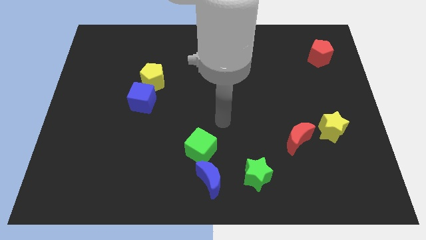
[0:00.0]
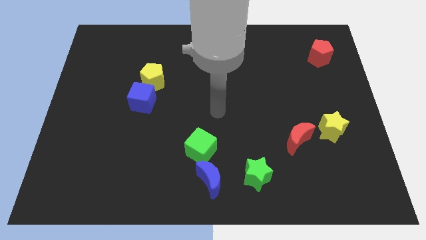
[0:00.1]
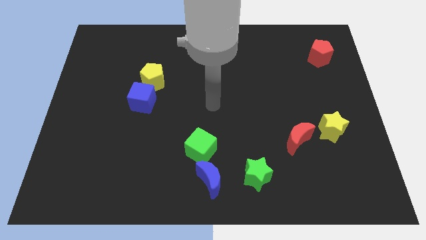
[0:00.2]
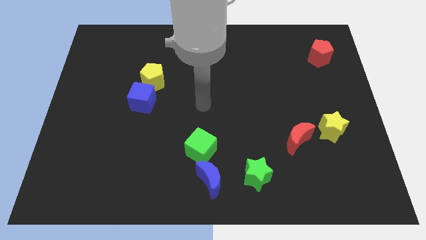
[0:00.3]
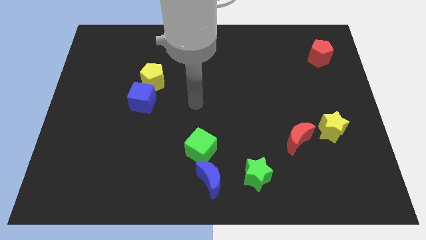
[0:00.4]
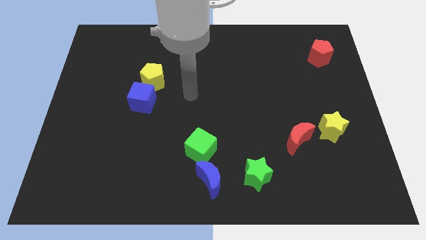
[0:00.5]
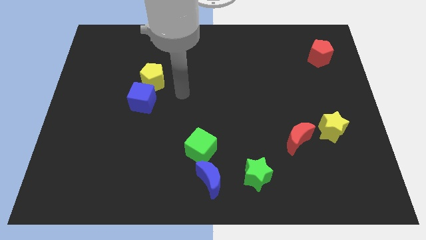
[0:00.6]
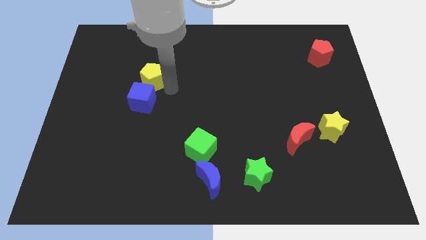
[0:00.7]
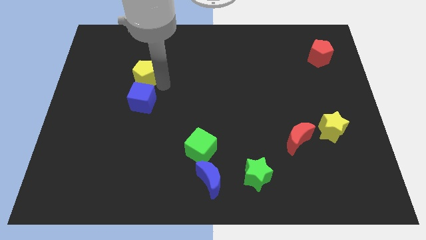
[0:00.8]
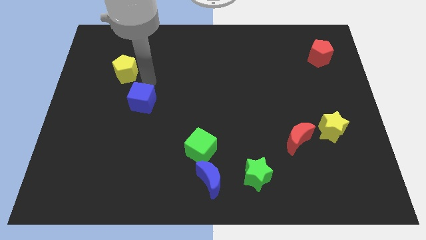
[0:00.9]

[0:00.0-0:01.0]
pull the blue cube apart from the yellow pentagon

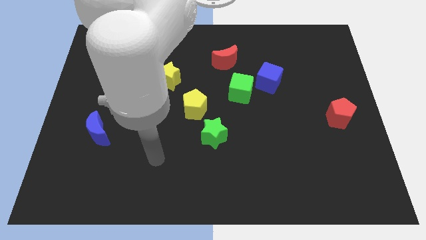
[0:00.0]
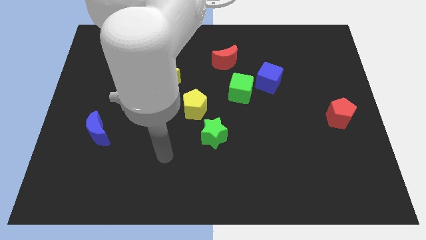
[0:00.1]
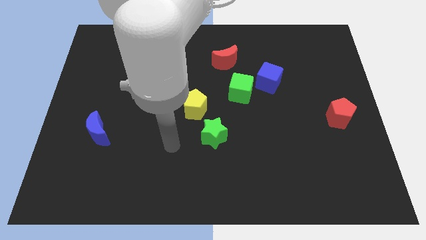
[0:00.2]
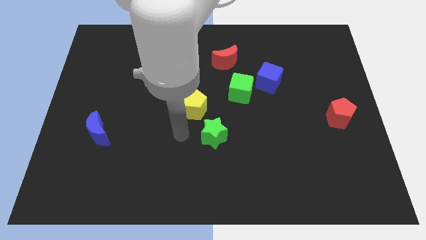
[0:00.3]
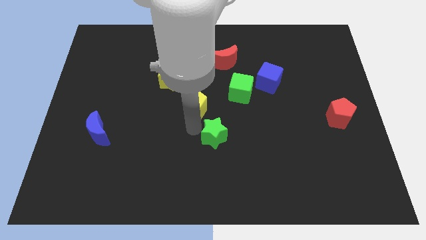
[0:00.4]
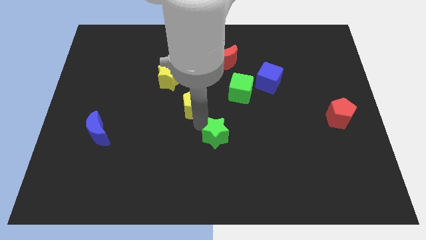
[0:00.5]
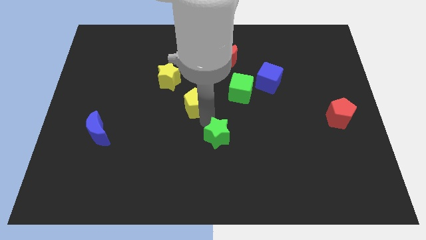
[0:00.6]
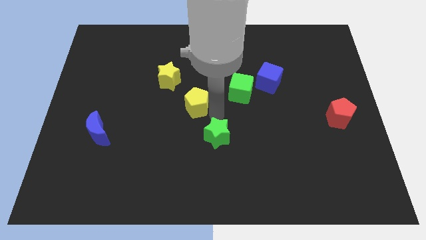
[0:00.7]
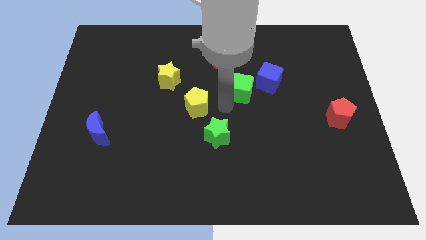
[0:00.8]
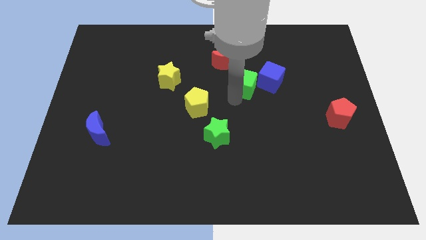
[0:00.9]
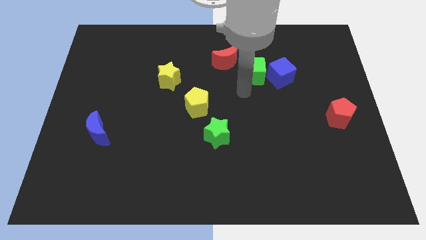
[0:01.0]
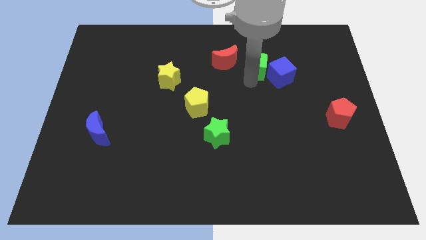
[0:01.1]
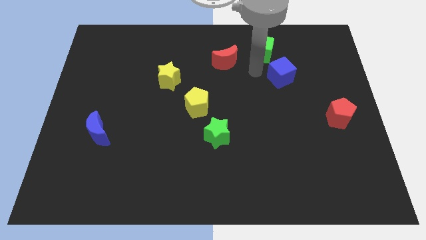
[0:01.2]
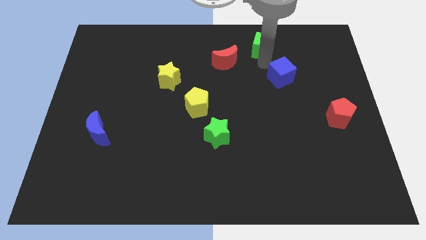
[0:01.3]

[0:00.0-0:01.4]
pull the blue cube apart from the green cube

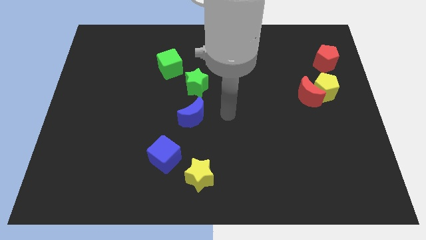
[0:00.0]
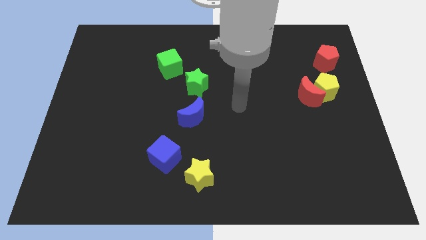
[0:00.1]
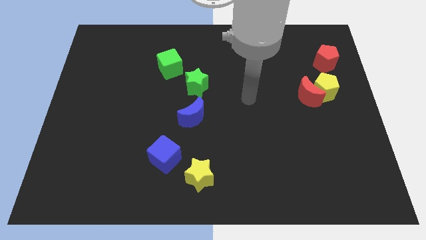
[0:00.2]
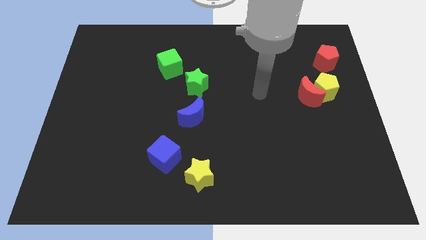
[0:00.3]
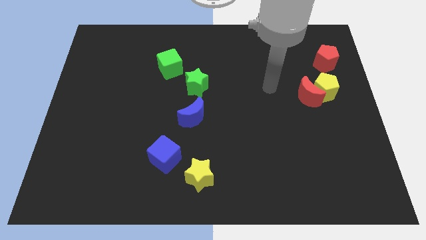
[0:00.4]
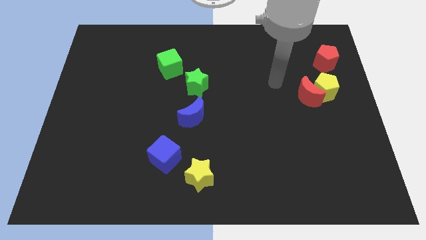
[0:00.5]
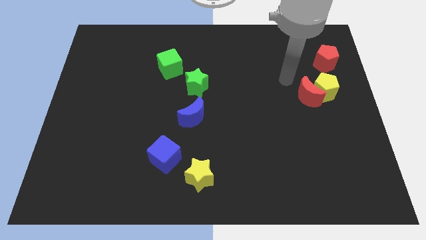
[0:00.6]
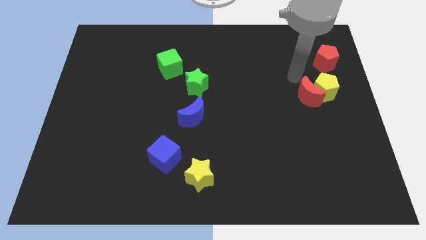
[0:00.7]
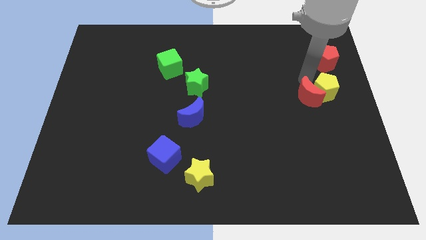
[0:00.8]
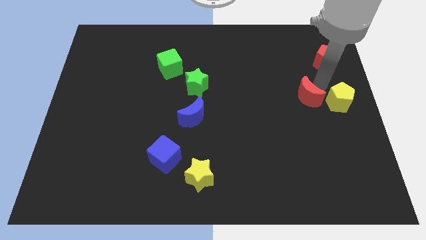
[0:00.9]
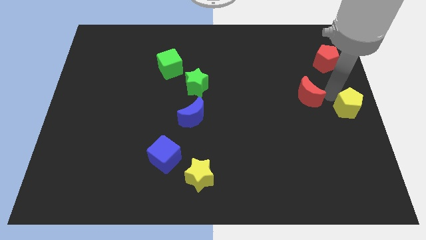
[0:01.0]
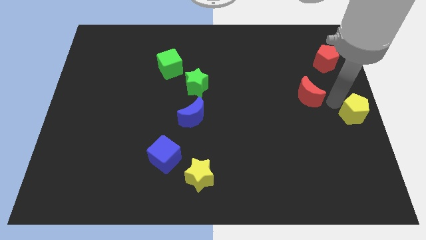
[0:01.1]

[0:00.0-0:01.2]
pull the red moon apart from the yellow pentagon

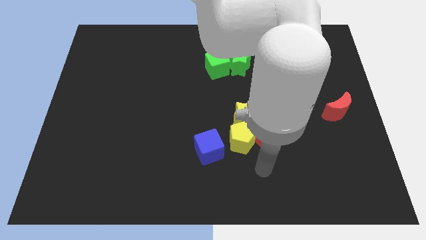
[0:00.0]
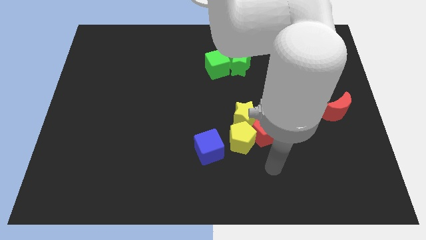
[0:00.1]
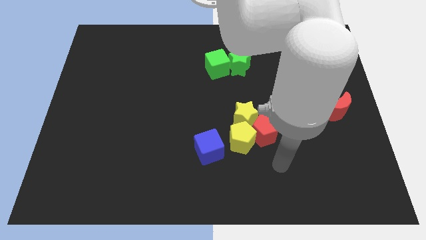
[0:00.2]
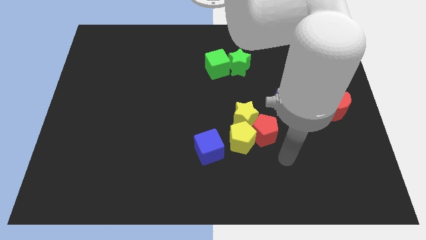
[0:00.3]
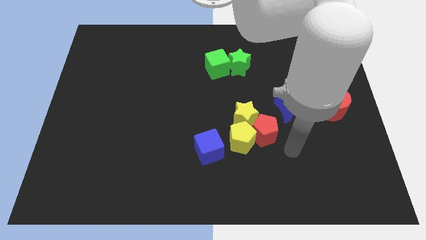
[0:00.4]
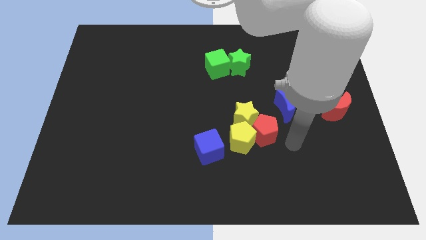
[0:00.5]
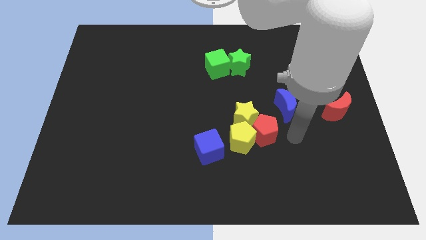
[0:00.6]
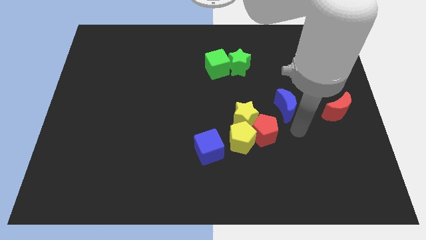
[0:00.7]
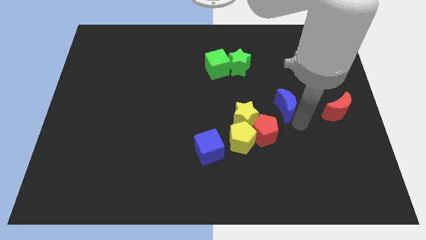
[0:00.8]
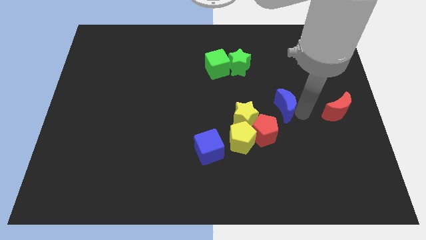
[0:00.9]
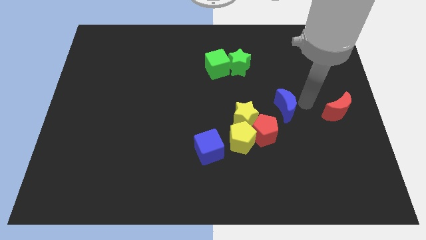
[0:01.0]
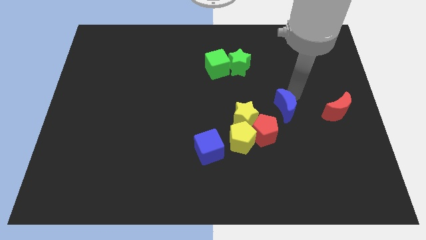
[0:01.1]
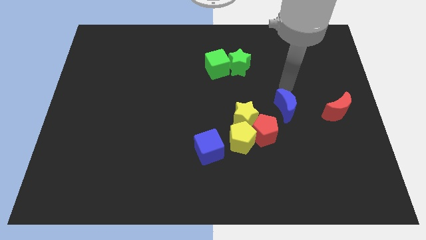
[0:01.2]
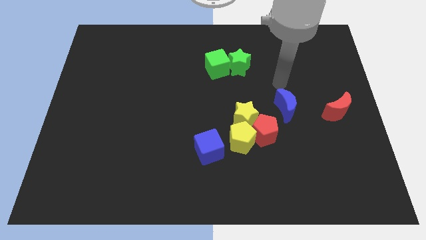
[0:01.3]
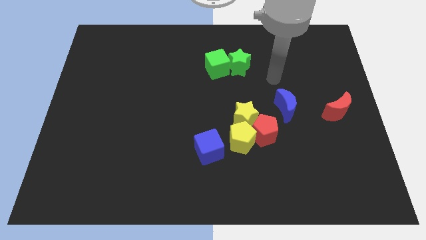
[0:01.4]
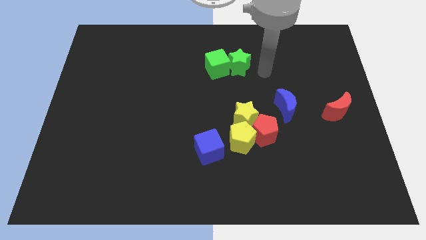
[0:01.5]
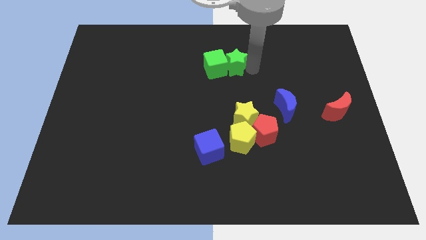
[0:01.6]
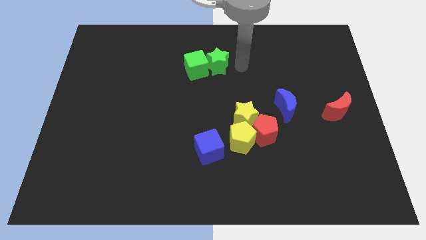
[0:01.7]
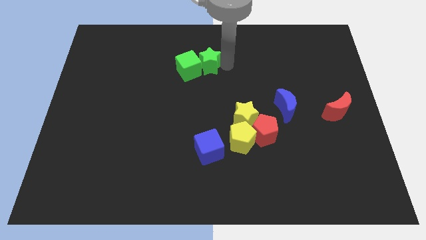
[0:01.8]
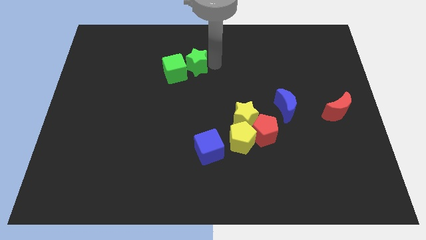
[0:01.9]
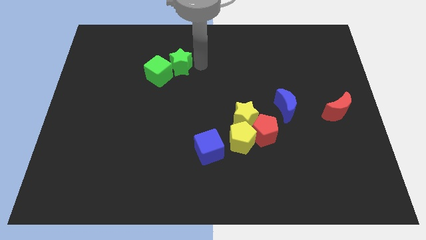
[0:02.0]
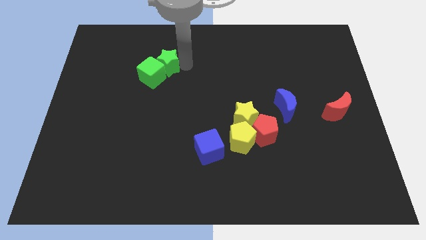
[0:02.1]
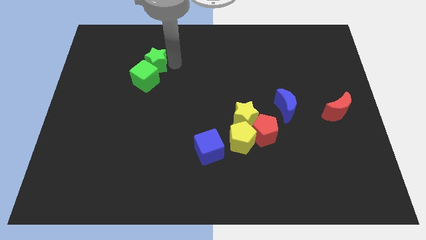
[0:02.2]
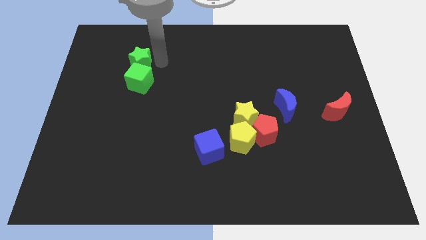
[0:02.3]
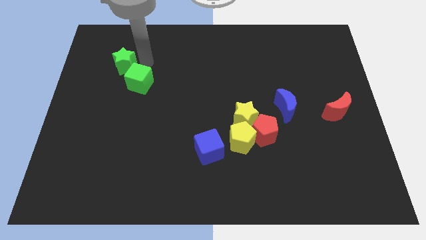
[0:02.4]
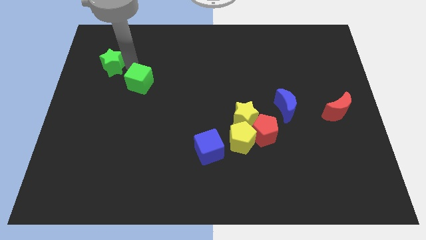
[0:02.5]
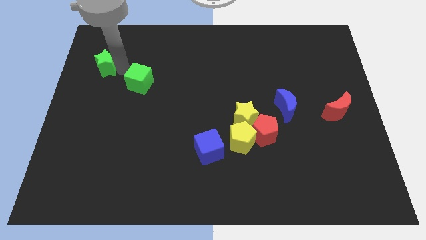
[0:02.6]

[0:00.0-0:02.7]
separate the green cube from the green star

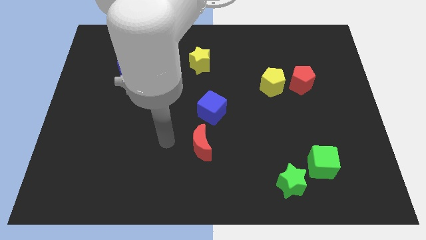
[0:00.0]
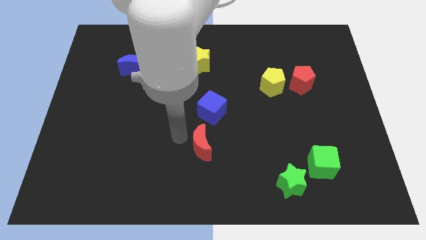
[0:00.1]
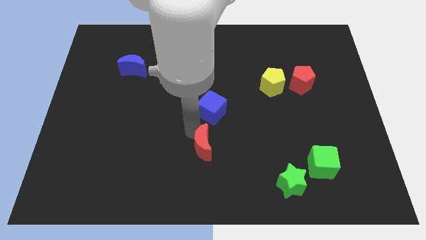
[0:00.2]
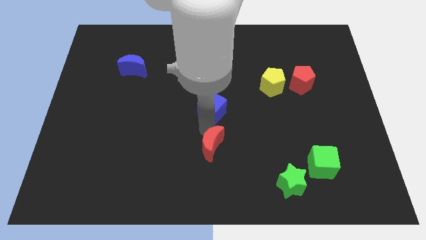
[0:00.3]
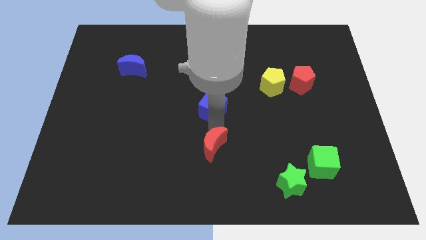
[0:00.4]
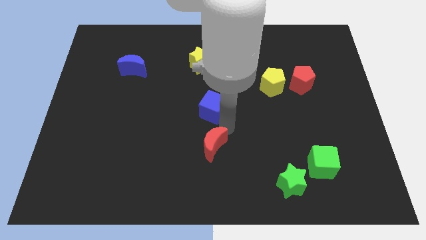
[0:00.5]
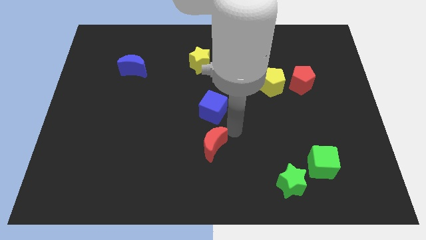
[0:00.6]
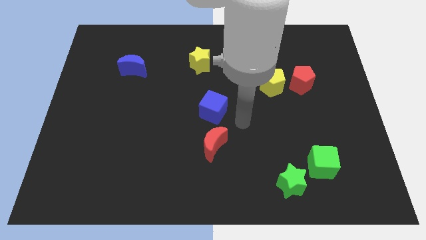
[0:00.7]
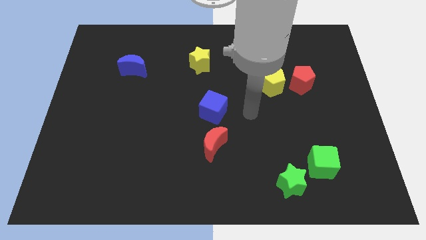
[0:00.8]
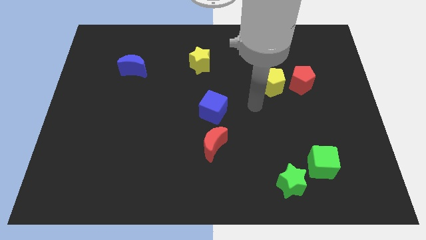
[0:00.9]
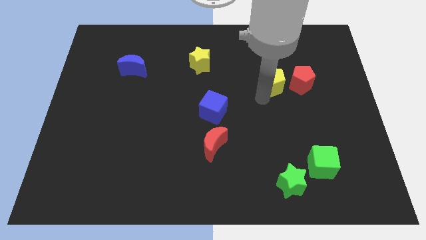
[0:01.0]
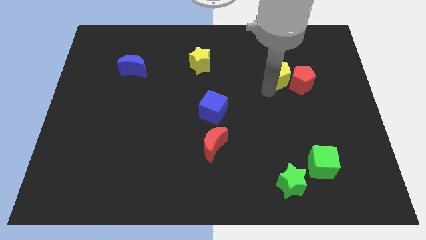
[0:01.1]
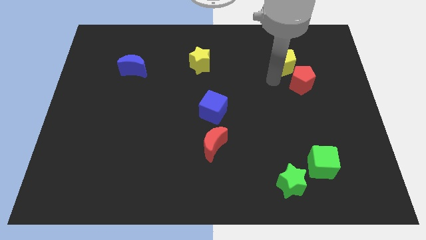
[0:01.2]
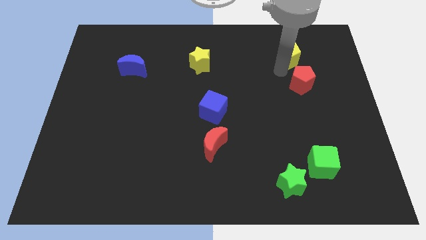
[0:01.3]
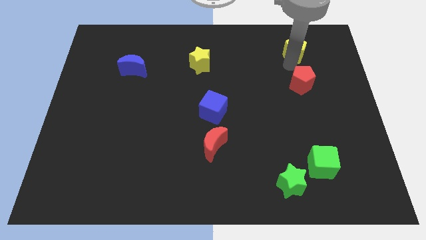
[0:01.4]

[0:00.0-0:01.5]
move the red pentagon away from the yellow pentagon

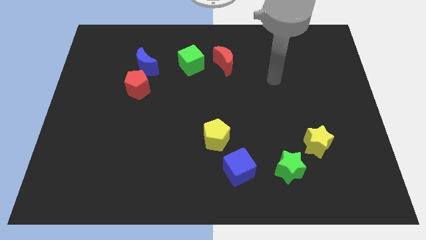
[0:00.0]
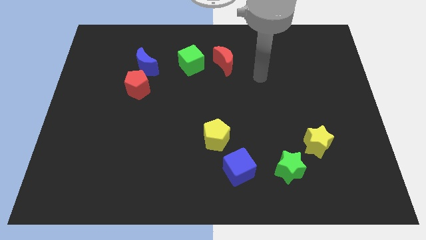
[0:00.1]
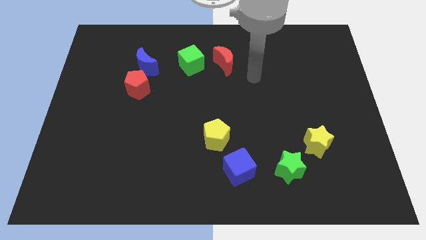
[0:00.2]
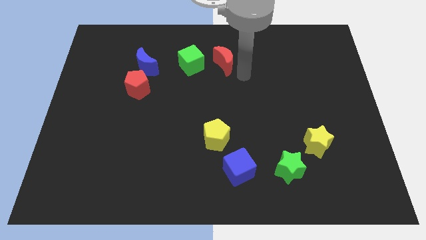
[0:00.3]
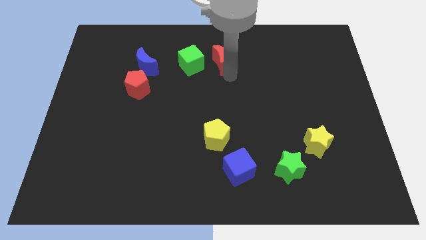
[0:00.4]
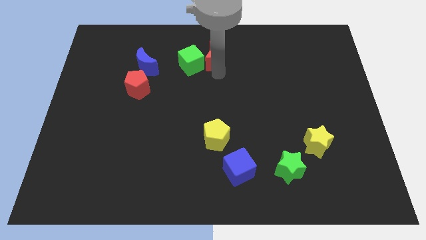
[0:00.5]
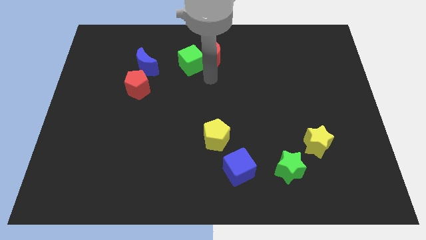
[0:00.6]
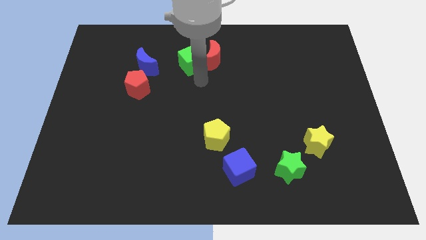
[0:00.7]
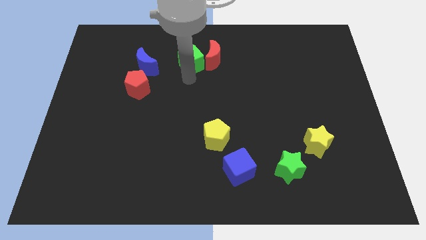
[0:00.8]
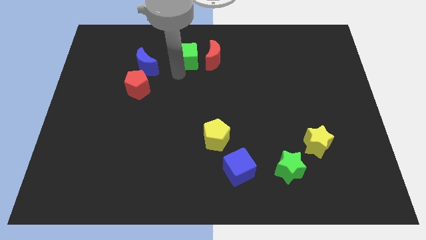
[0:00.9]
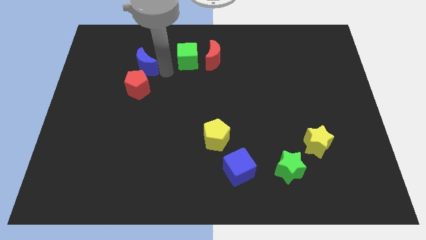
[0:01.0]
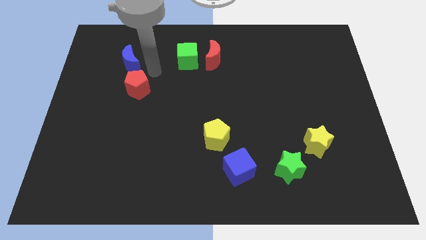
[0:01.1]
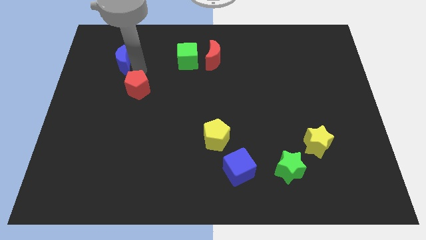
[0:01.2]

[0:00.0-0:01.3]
move the red pentagon away from the blue moon
